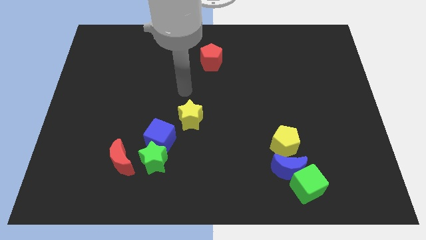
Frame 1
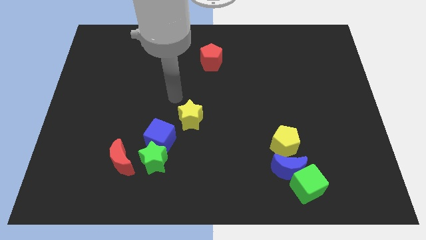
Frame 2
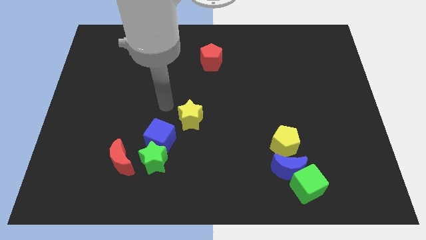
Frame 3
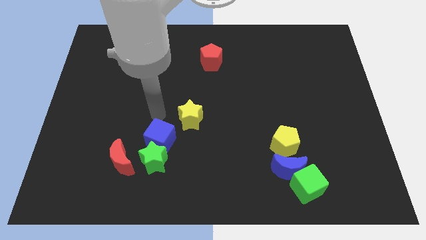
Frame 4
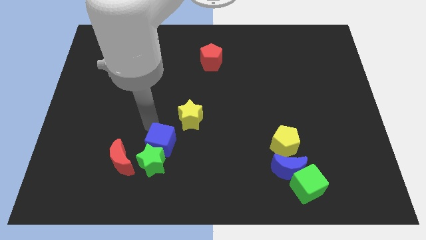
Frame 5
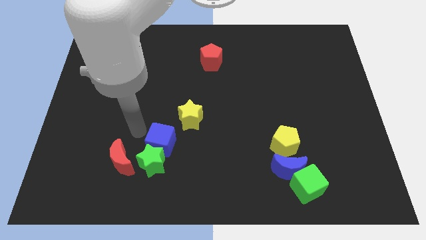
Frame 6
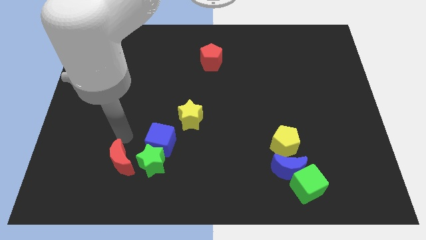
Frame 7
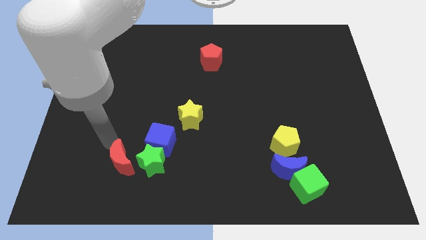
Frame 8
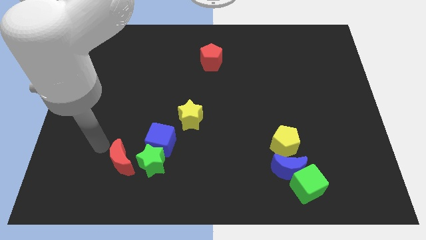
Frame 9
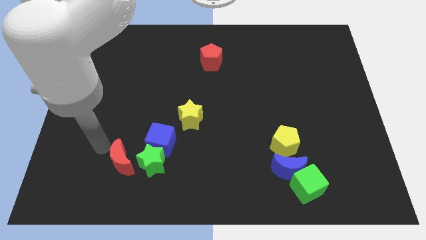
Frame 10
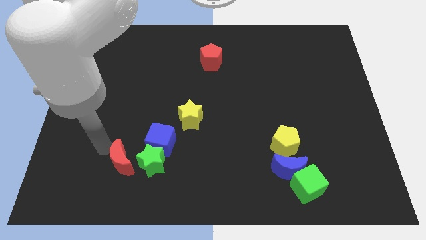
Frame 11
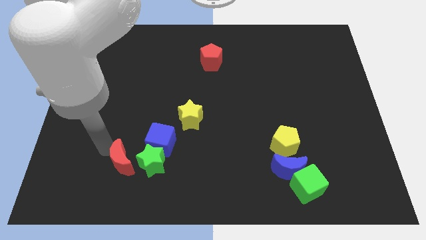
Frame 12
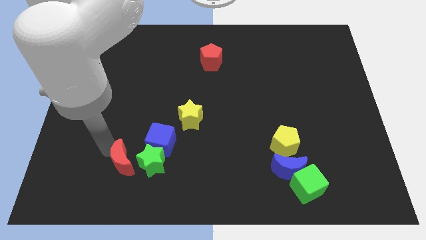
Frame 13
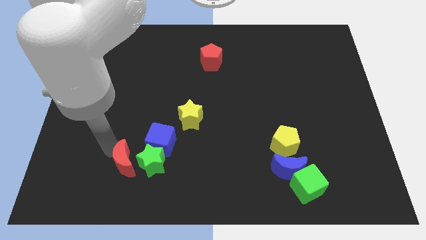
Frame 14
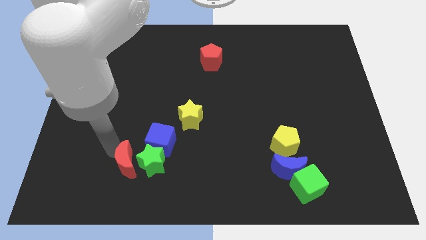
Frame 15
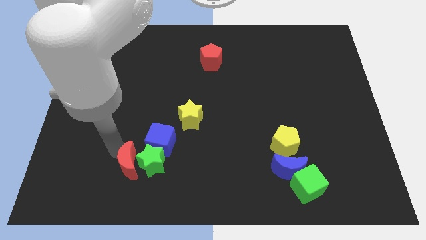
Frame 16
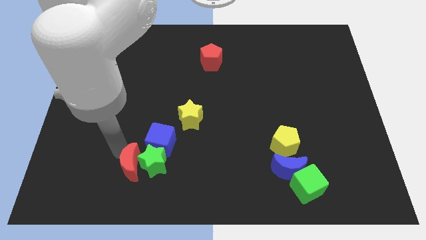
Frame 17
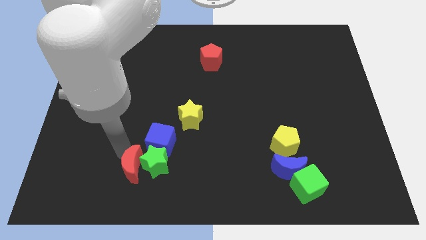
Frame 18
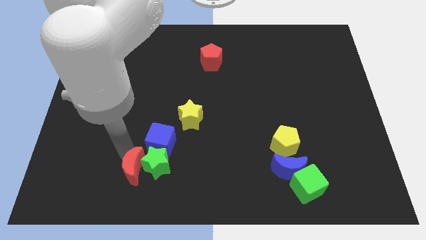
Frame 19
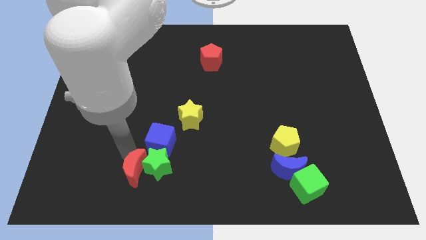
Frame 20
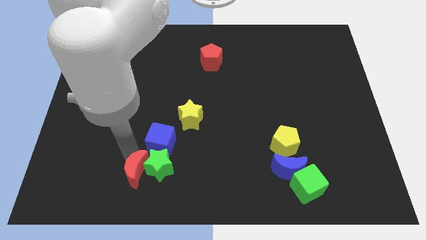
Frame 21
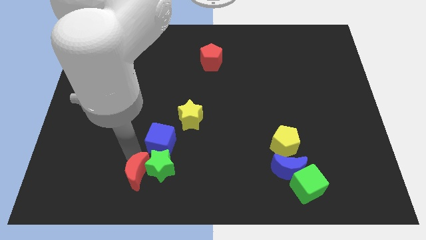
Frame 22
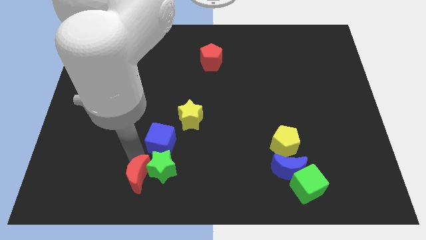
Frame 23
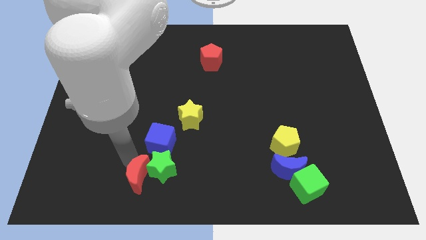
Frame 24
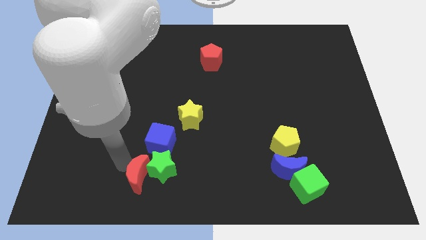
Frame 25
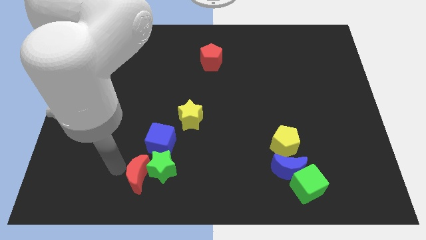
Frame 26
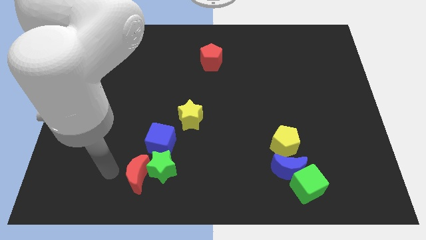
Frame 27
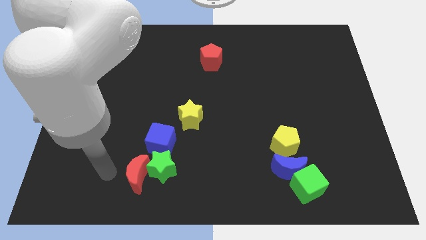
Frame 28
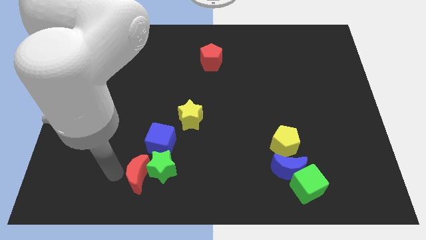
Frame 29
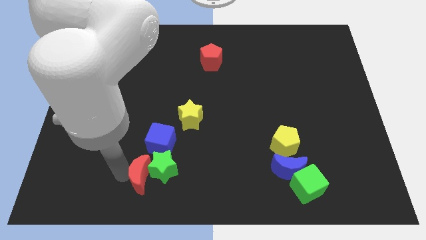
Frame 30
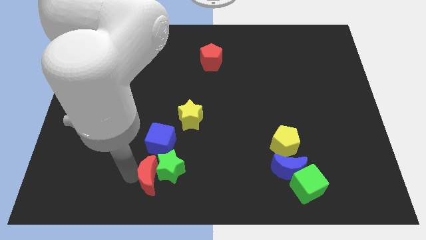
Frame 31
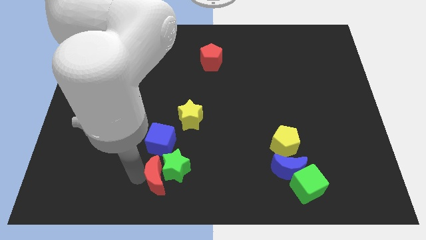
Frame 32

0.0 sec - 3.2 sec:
slightly move the red moon to the right

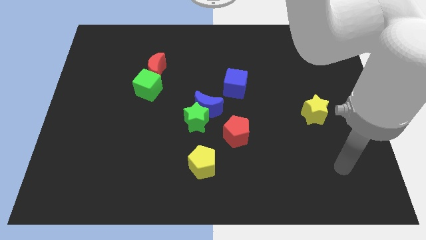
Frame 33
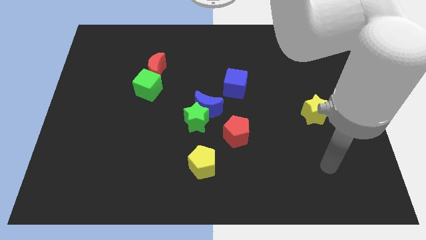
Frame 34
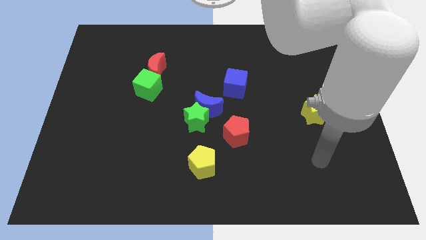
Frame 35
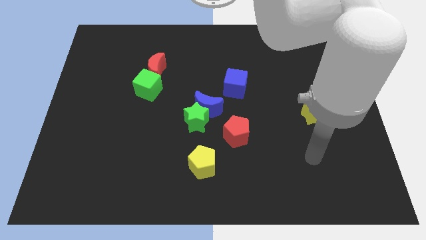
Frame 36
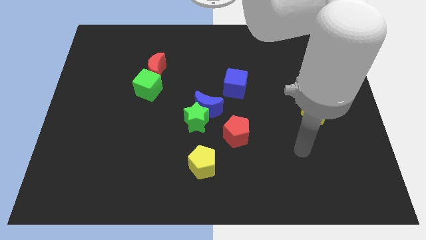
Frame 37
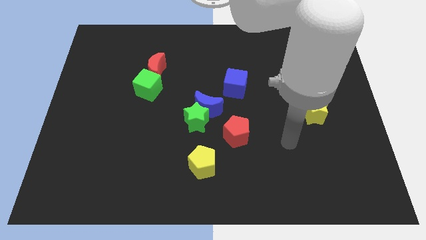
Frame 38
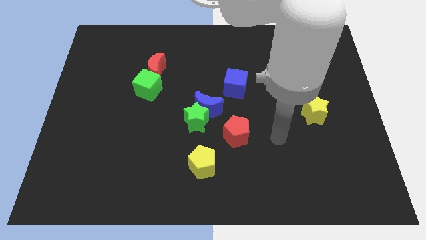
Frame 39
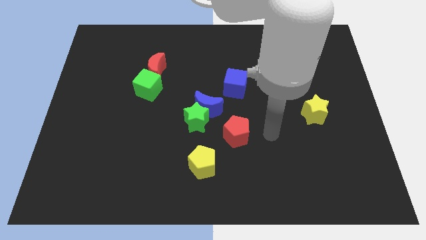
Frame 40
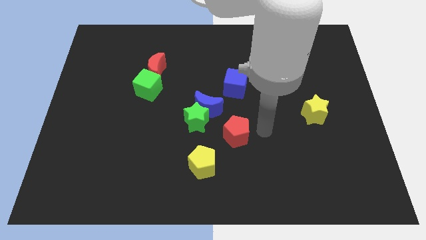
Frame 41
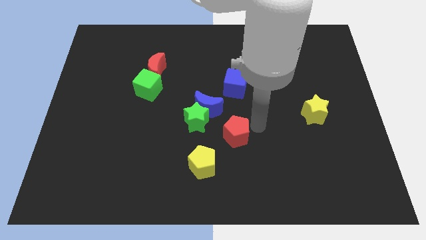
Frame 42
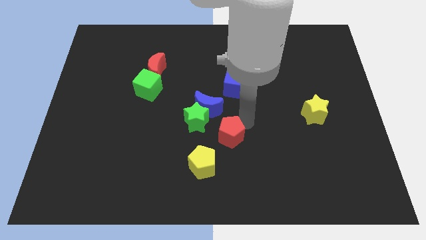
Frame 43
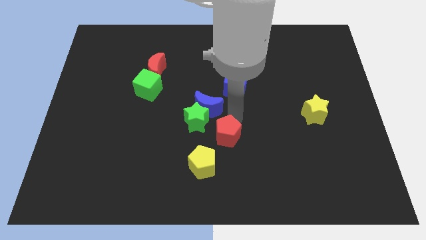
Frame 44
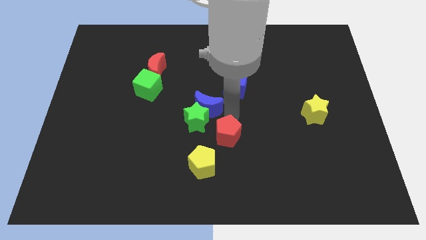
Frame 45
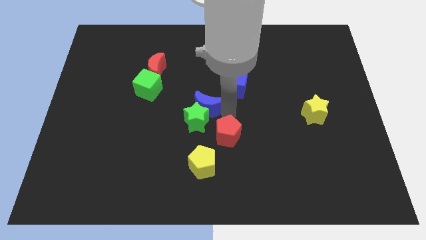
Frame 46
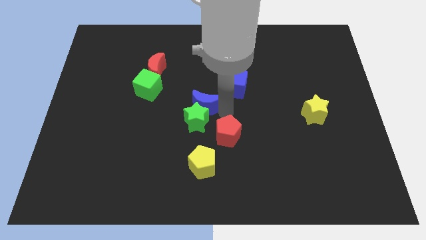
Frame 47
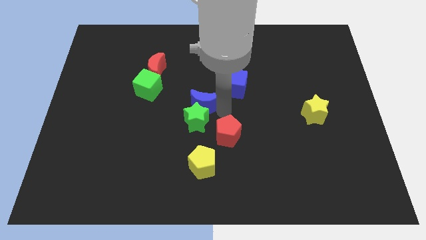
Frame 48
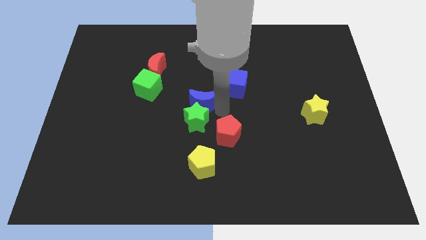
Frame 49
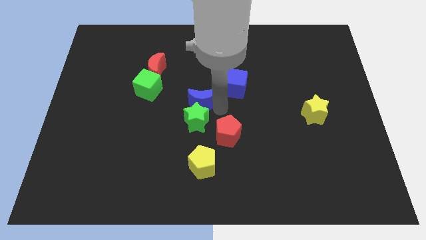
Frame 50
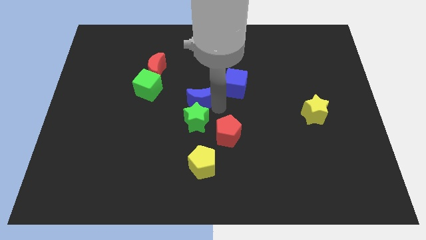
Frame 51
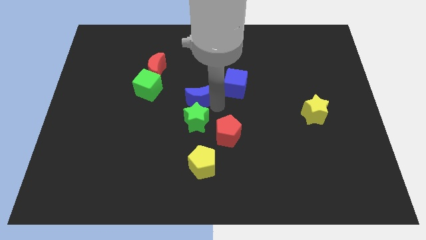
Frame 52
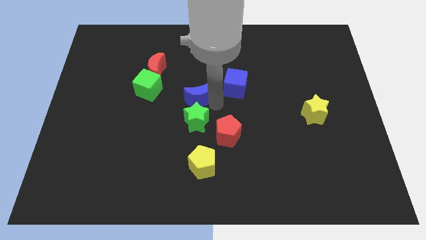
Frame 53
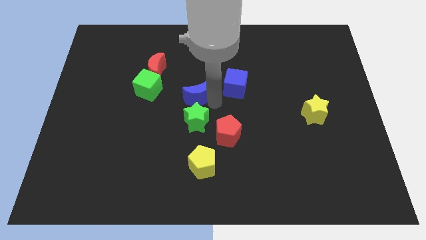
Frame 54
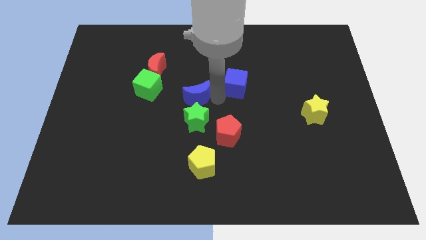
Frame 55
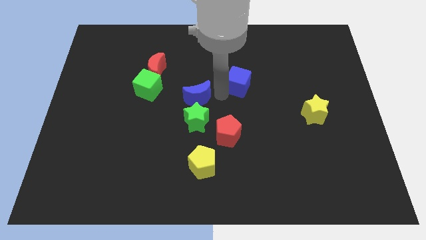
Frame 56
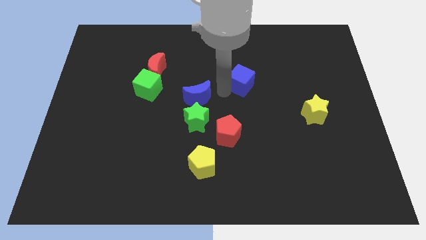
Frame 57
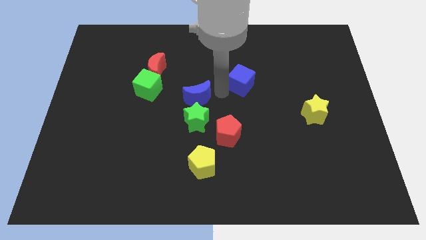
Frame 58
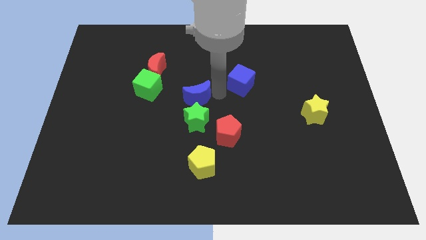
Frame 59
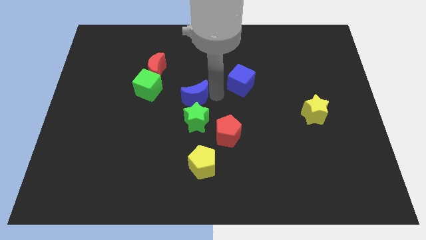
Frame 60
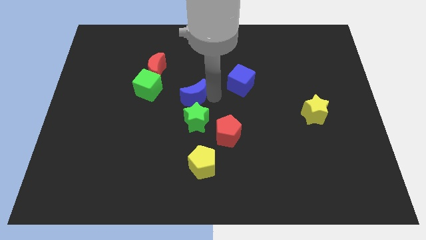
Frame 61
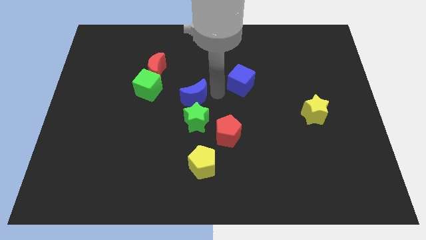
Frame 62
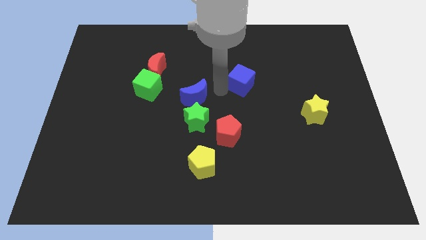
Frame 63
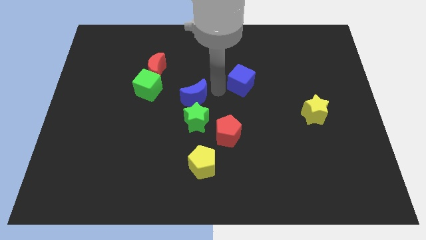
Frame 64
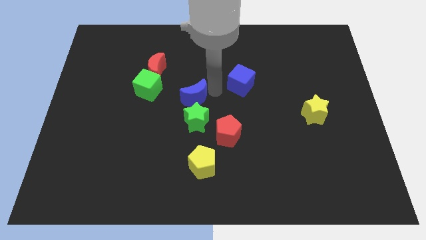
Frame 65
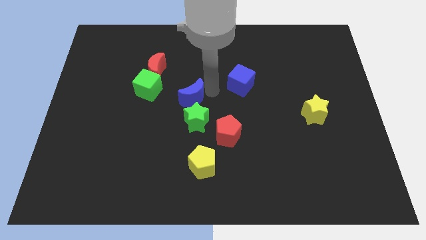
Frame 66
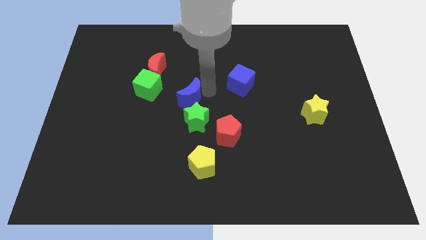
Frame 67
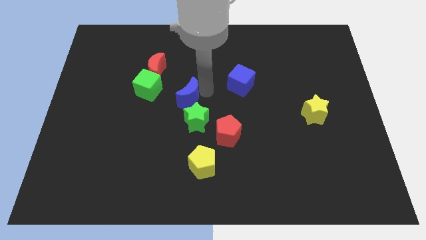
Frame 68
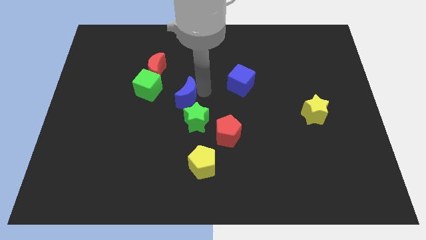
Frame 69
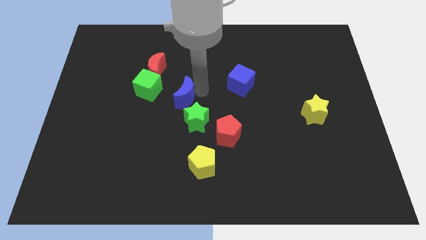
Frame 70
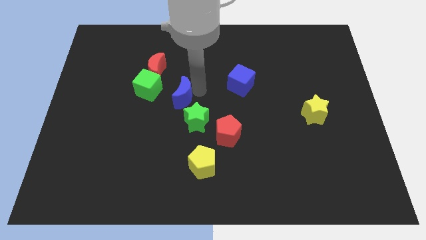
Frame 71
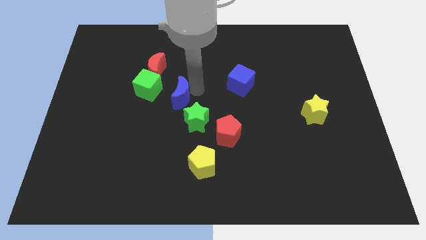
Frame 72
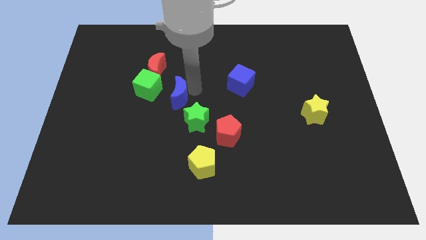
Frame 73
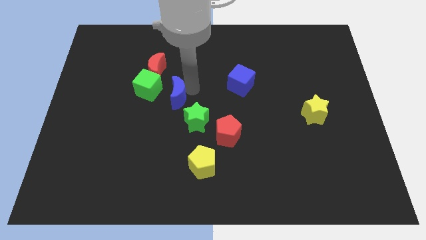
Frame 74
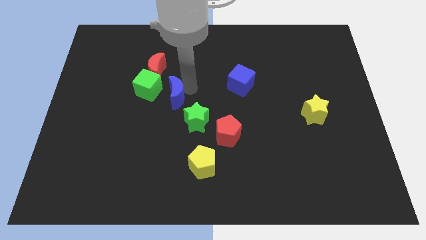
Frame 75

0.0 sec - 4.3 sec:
move the blue moon a little to the left

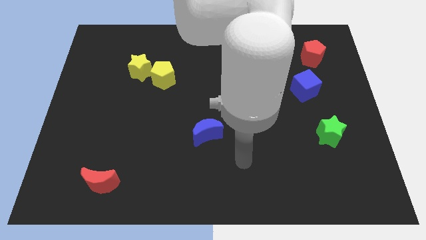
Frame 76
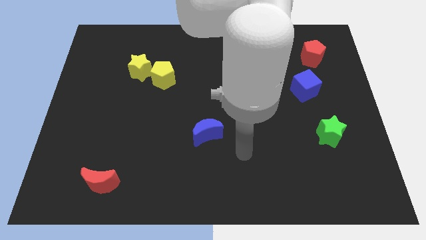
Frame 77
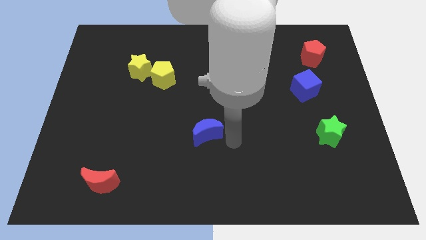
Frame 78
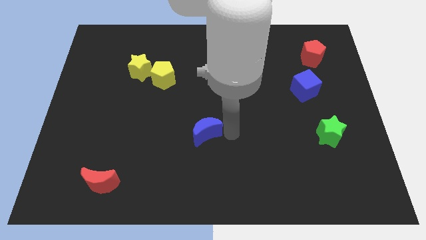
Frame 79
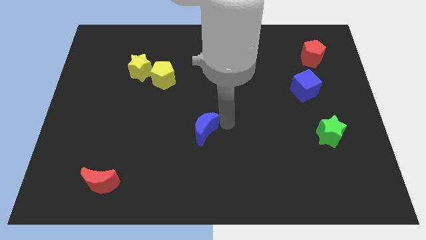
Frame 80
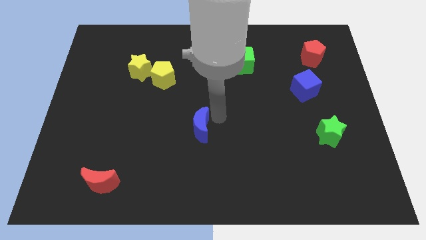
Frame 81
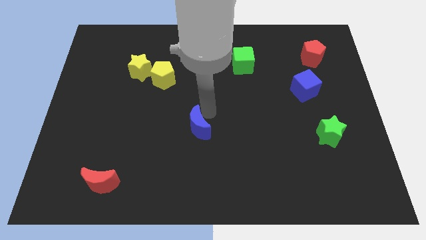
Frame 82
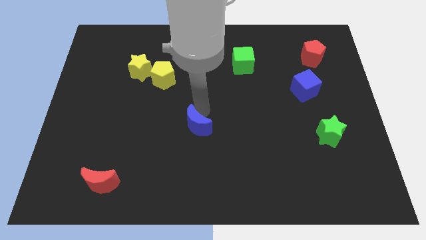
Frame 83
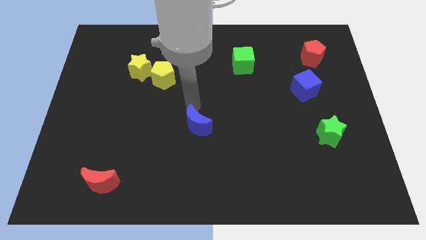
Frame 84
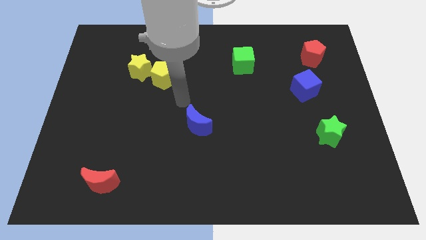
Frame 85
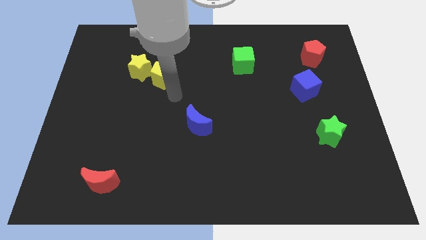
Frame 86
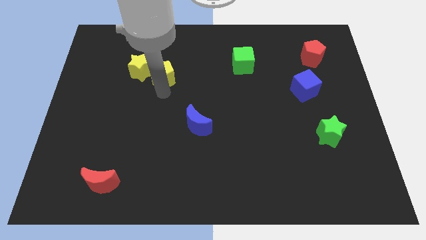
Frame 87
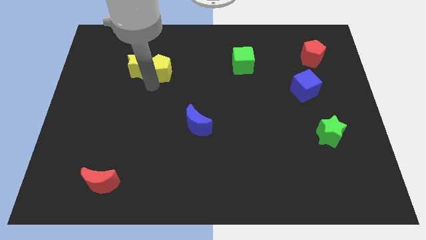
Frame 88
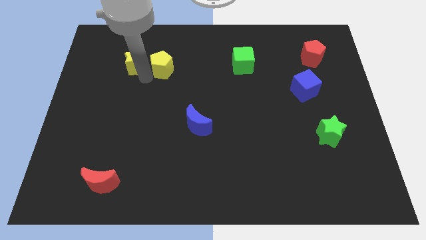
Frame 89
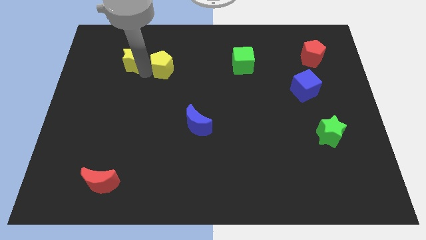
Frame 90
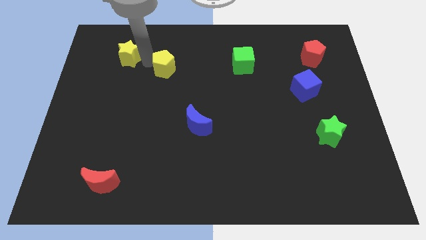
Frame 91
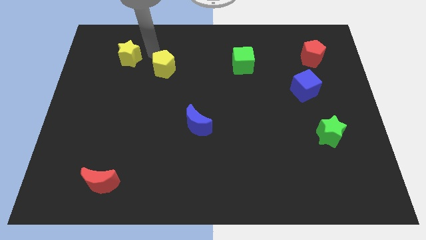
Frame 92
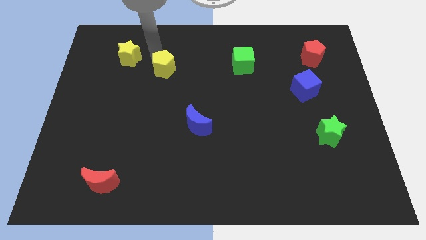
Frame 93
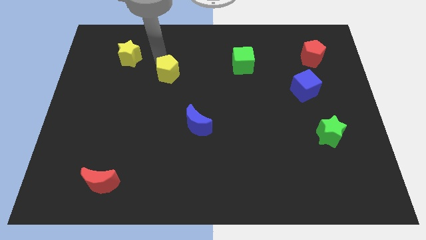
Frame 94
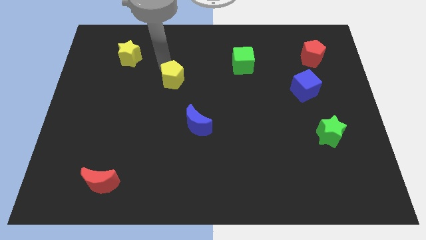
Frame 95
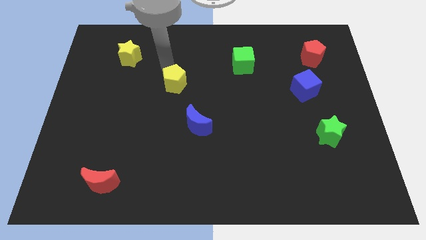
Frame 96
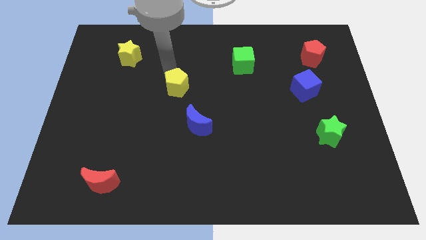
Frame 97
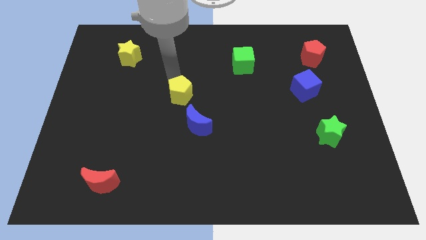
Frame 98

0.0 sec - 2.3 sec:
slightly push the yellow pentagon downwards and to the right
